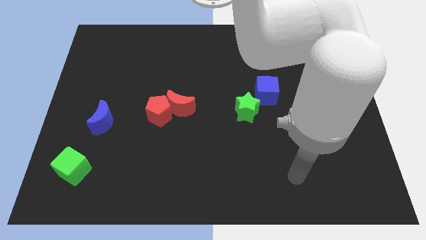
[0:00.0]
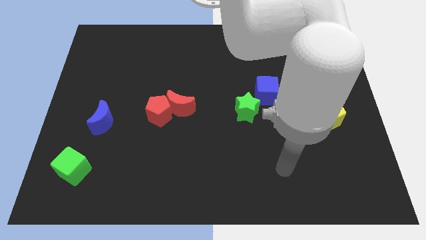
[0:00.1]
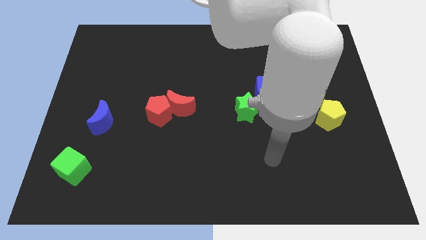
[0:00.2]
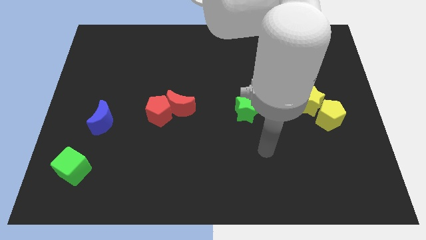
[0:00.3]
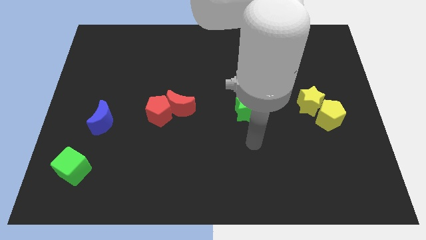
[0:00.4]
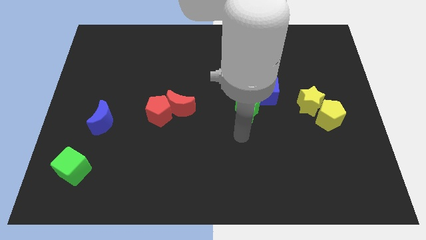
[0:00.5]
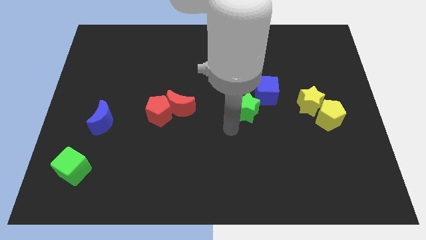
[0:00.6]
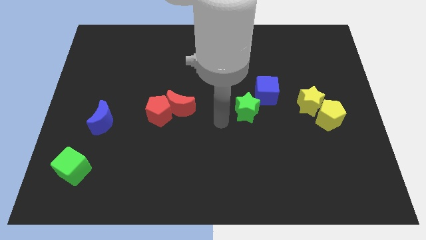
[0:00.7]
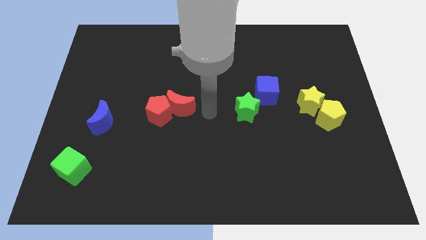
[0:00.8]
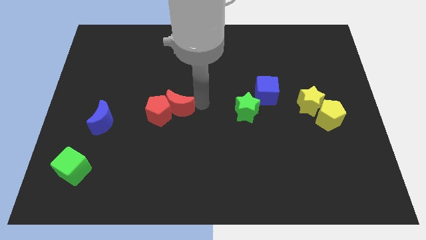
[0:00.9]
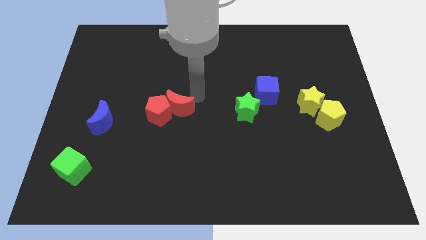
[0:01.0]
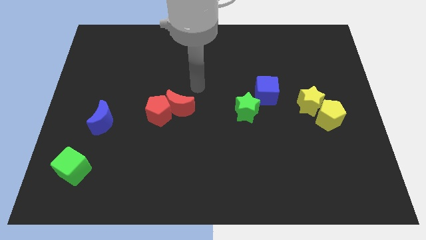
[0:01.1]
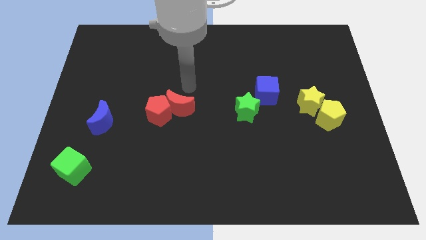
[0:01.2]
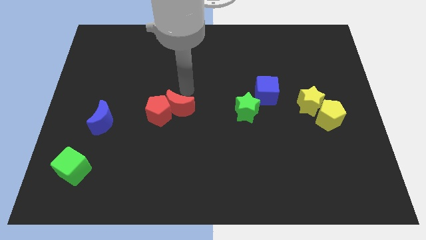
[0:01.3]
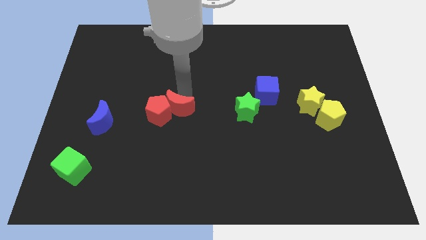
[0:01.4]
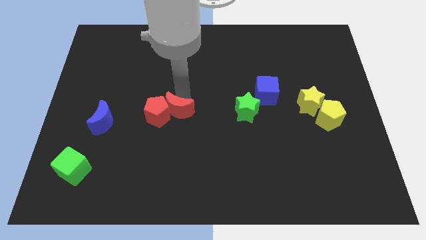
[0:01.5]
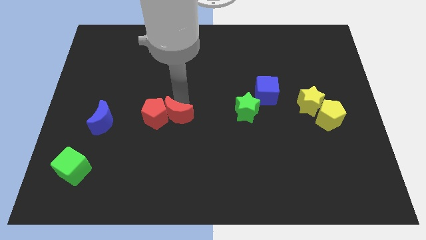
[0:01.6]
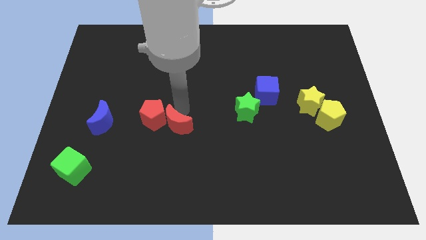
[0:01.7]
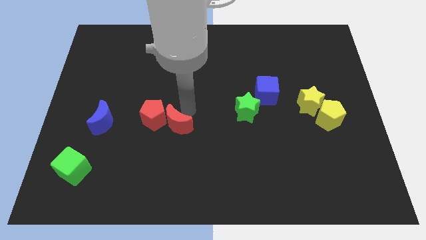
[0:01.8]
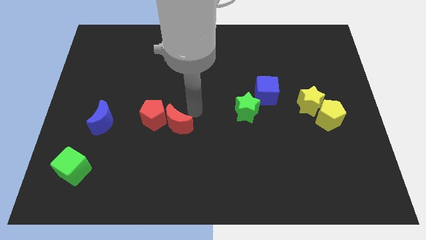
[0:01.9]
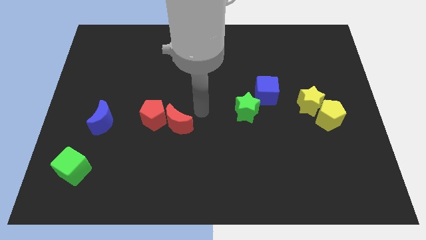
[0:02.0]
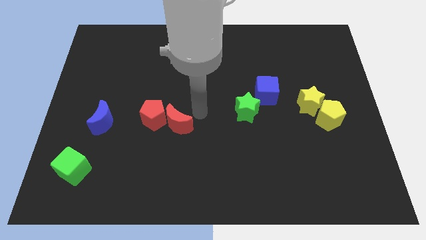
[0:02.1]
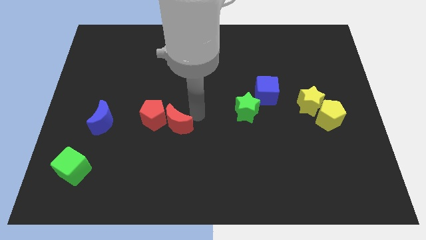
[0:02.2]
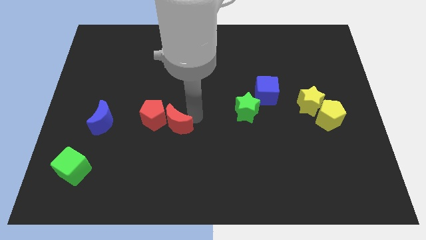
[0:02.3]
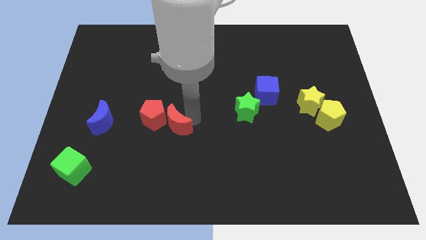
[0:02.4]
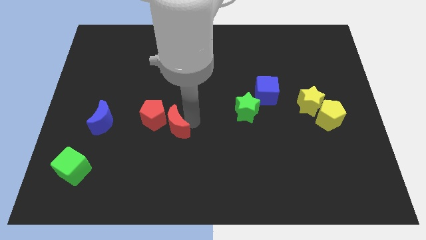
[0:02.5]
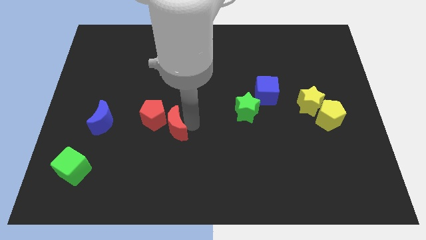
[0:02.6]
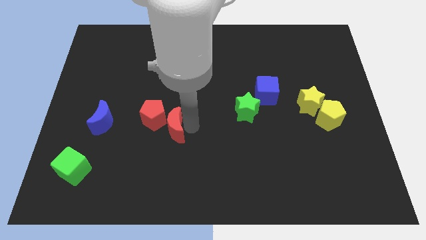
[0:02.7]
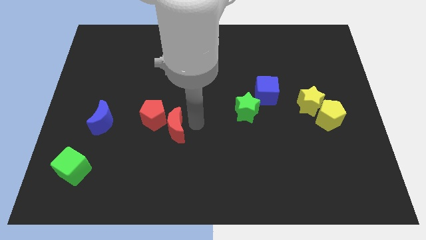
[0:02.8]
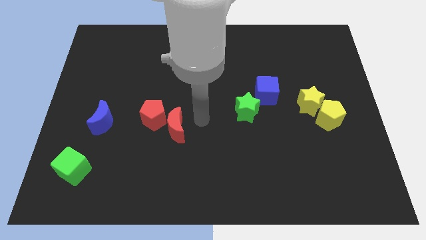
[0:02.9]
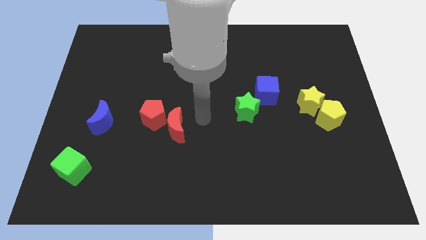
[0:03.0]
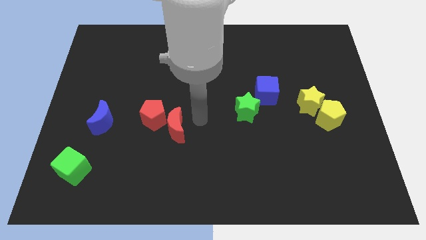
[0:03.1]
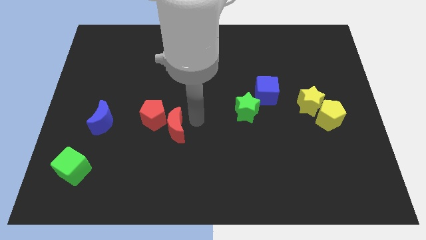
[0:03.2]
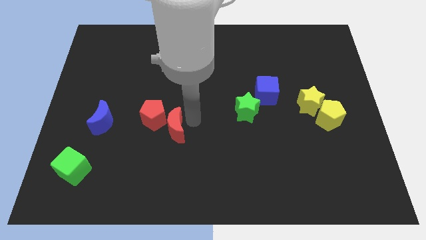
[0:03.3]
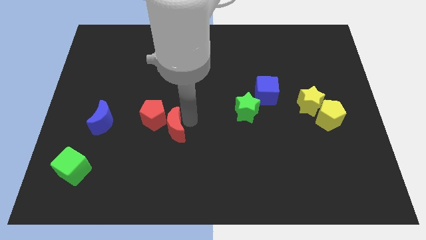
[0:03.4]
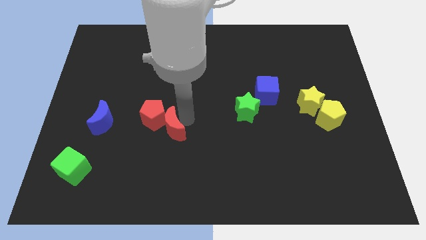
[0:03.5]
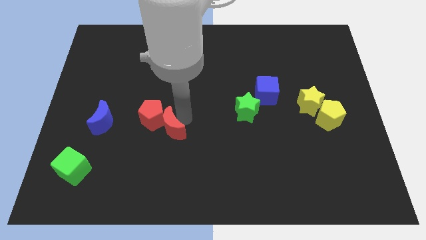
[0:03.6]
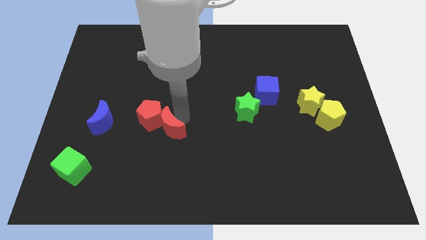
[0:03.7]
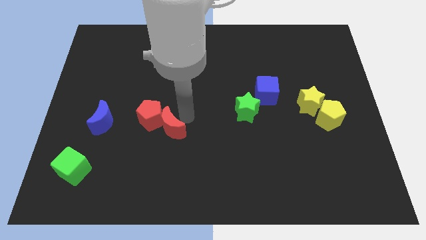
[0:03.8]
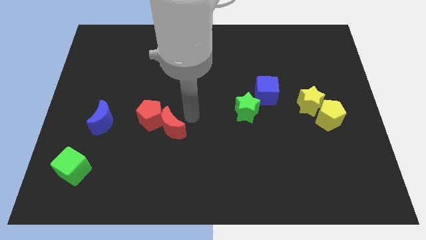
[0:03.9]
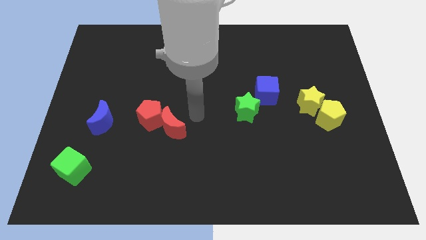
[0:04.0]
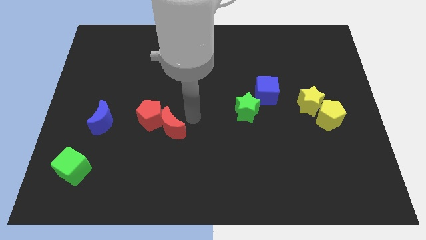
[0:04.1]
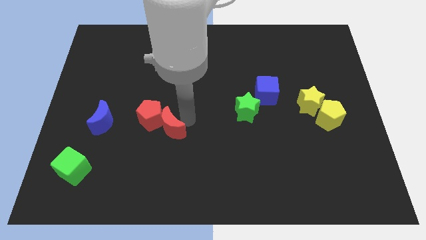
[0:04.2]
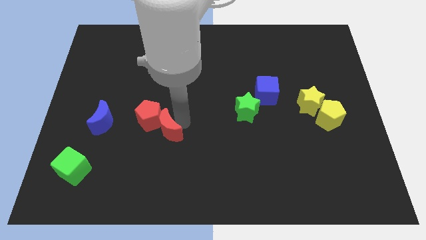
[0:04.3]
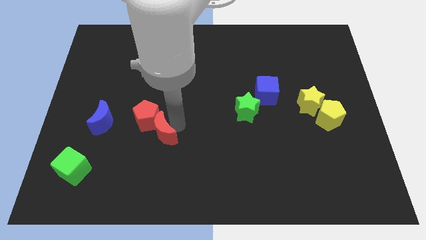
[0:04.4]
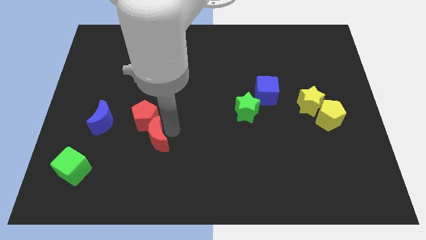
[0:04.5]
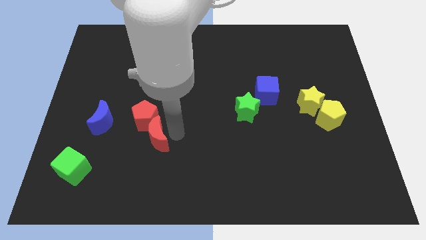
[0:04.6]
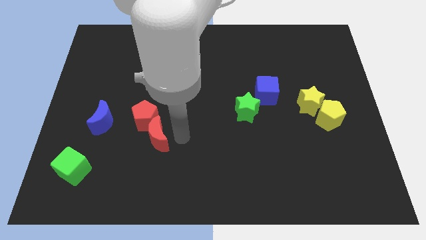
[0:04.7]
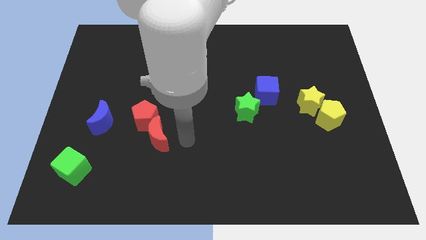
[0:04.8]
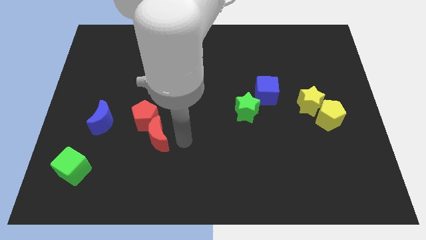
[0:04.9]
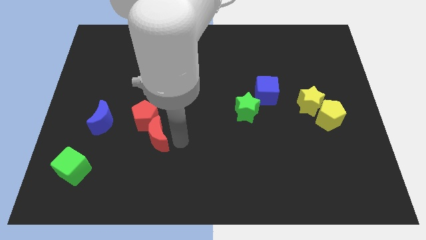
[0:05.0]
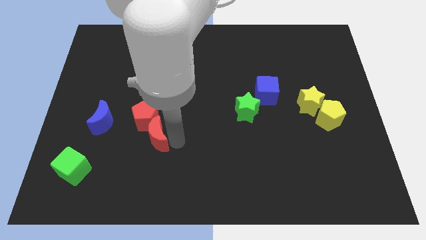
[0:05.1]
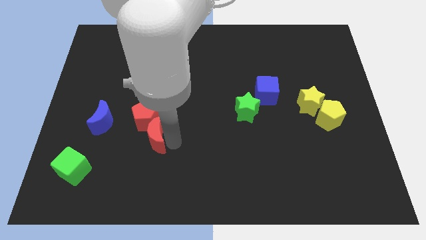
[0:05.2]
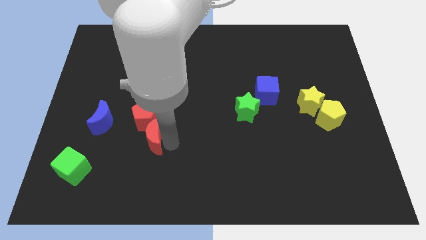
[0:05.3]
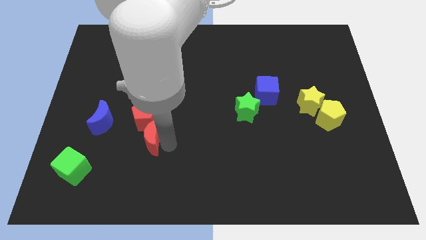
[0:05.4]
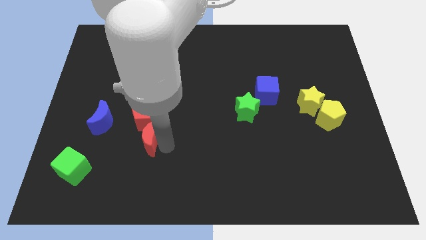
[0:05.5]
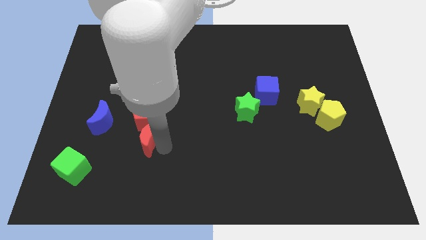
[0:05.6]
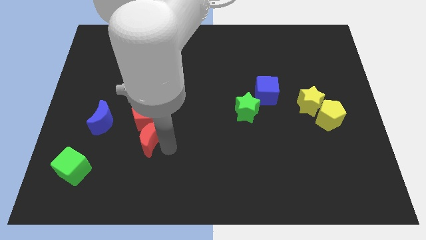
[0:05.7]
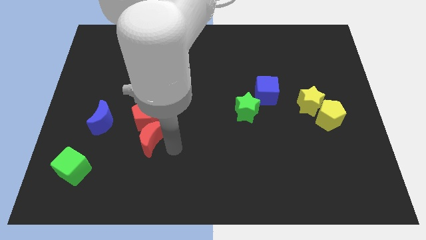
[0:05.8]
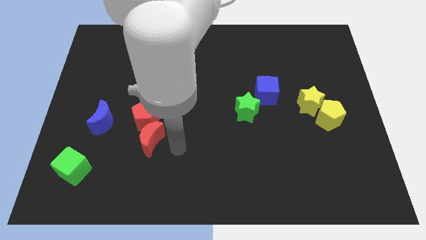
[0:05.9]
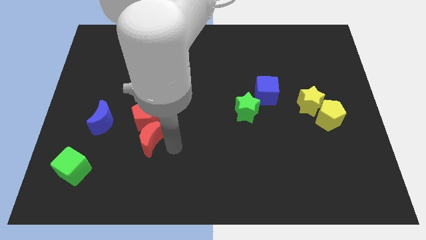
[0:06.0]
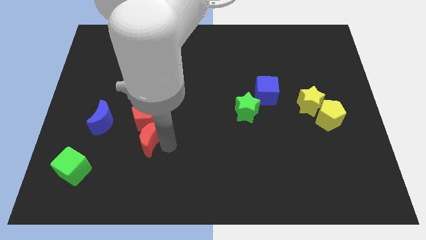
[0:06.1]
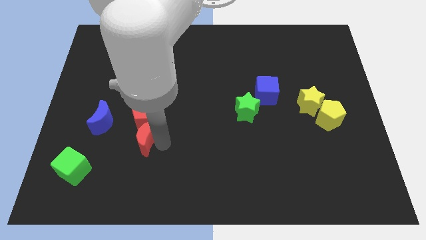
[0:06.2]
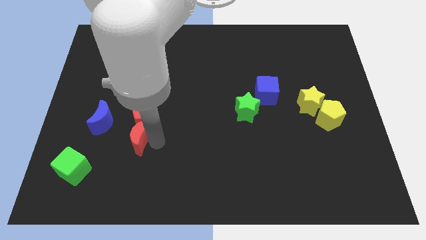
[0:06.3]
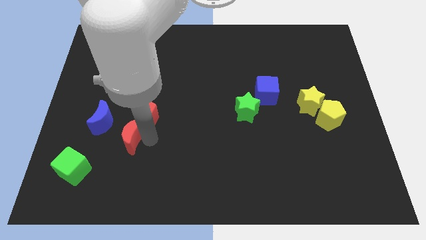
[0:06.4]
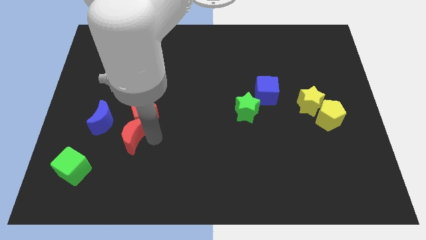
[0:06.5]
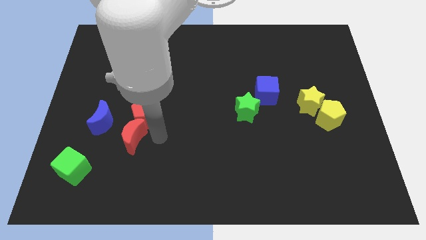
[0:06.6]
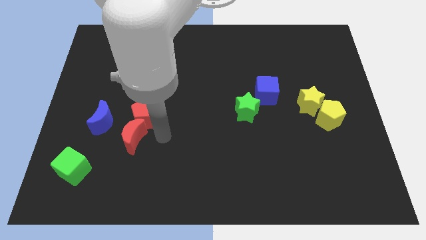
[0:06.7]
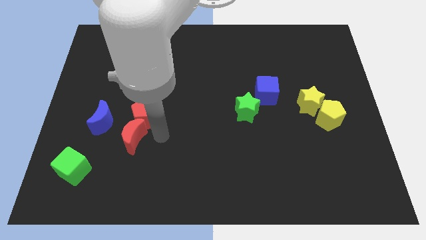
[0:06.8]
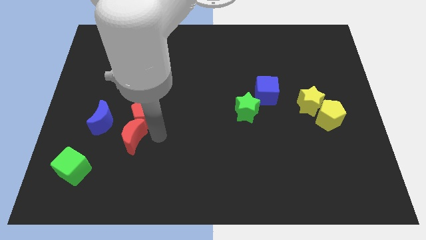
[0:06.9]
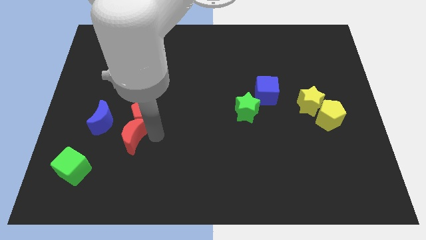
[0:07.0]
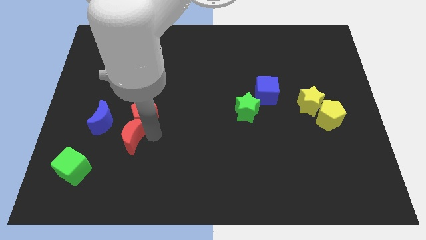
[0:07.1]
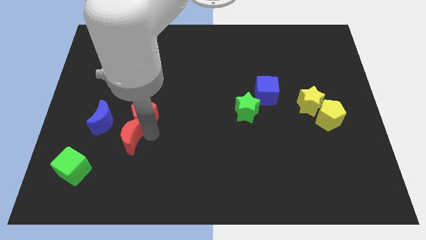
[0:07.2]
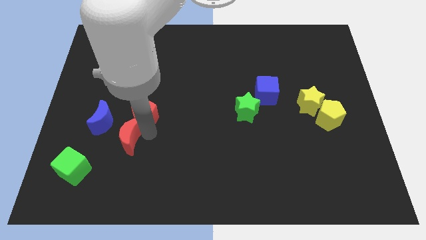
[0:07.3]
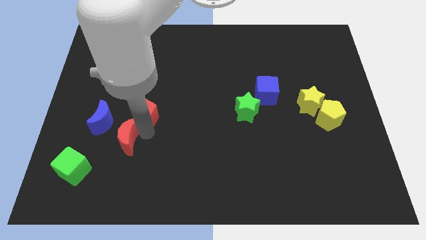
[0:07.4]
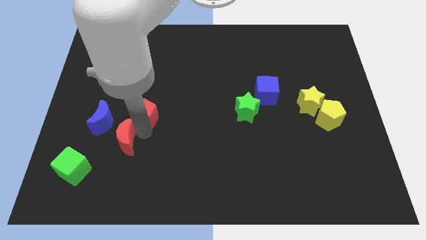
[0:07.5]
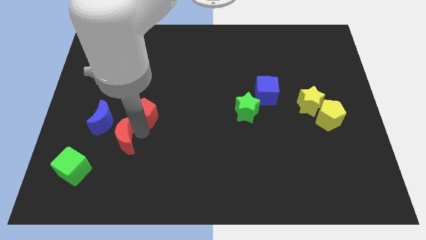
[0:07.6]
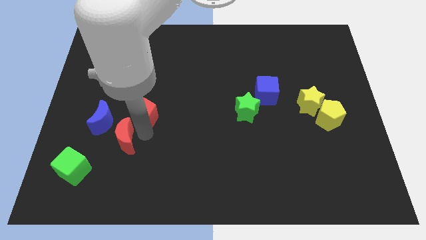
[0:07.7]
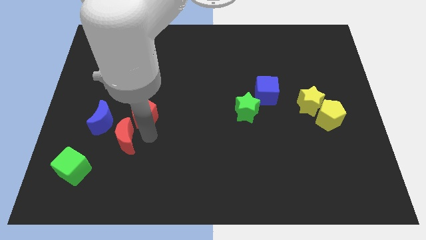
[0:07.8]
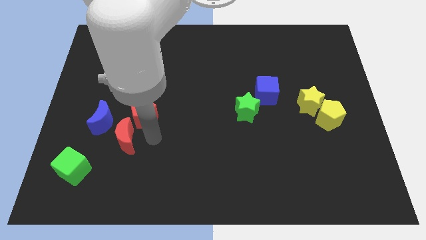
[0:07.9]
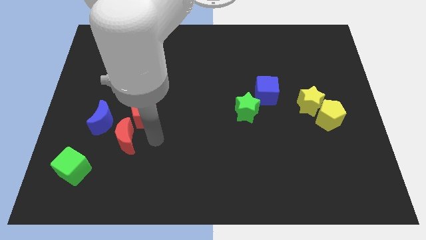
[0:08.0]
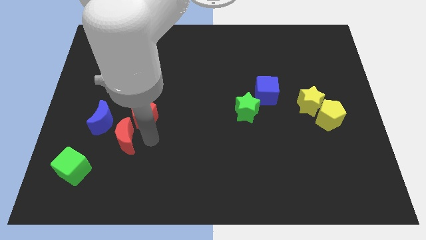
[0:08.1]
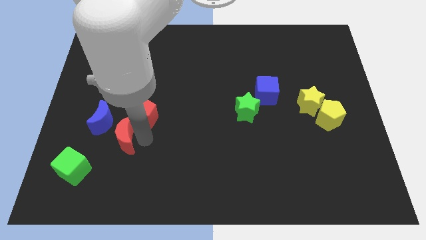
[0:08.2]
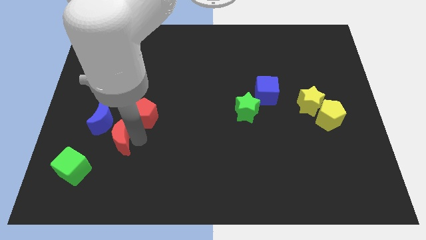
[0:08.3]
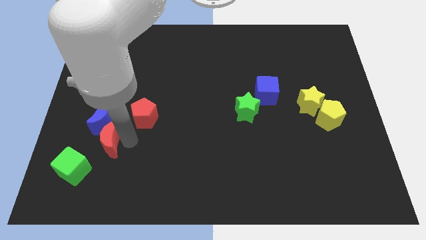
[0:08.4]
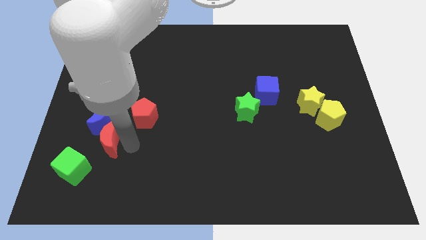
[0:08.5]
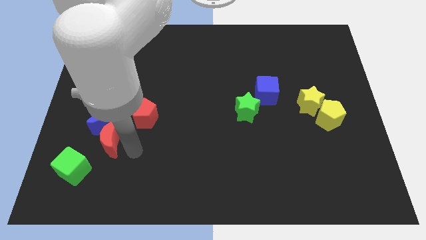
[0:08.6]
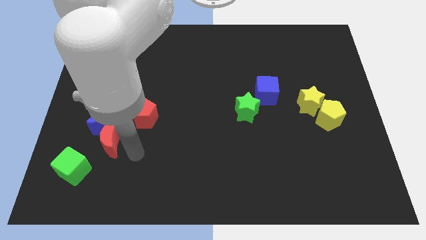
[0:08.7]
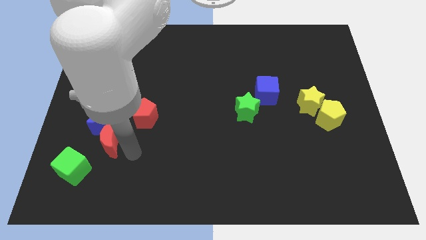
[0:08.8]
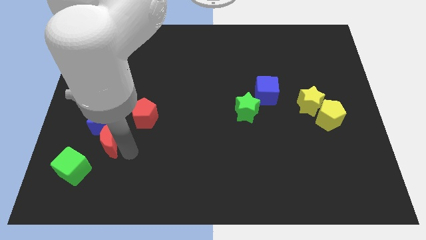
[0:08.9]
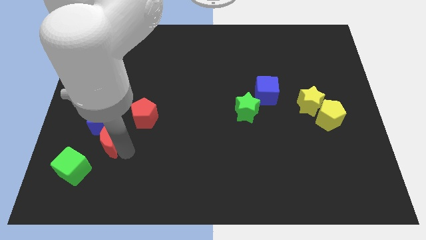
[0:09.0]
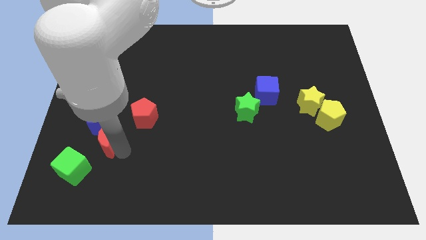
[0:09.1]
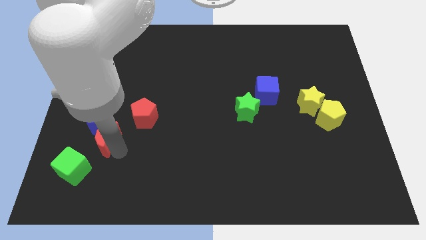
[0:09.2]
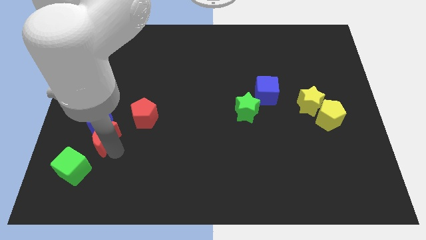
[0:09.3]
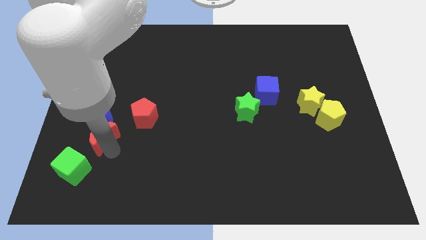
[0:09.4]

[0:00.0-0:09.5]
push the red moon to the top of the green cube
